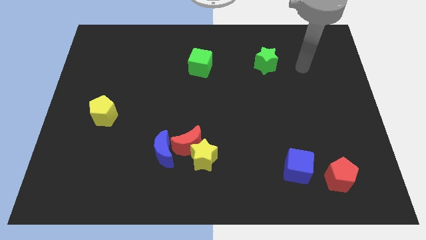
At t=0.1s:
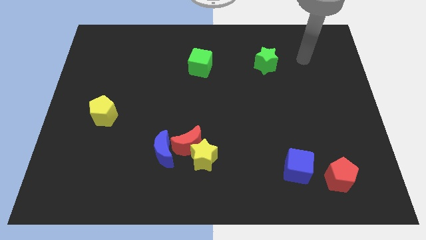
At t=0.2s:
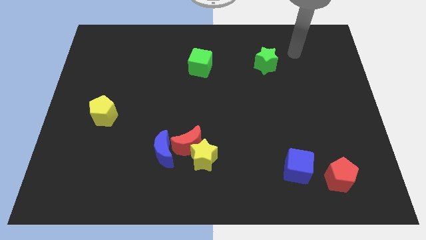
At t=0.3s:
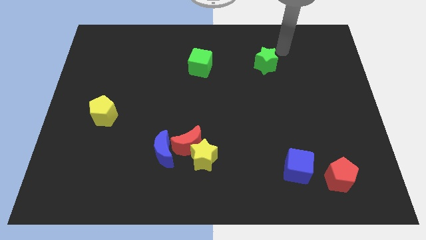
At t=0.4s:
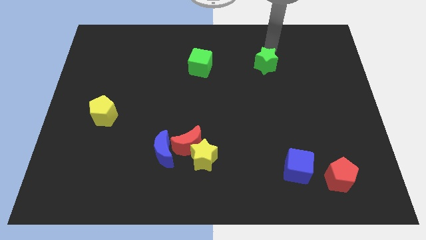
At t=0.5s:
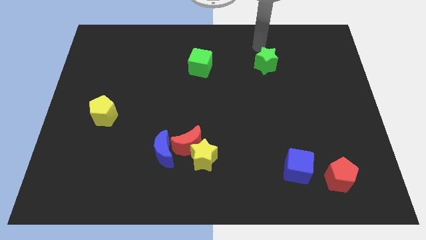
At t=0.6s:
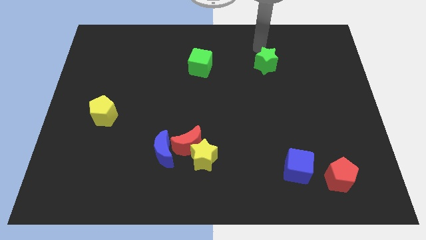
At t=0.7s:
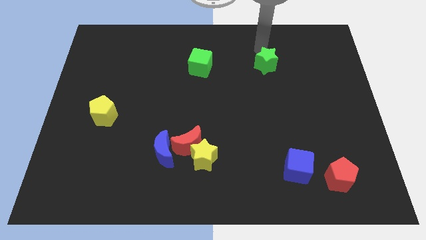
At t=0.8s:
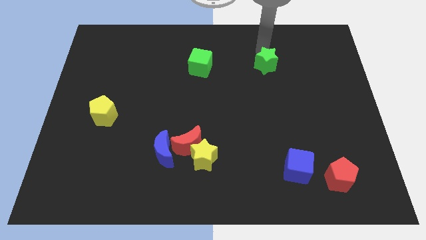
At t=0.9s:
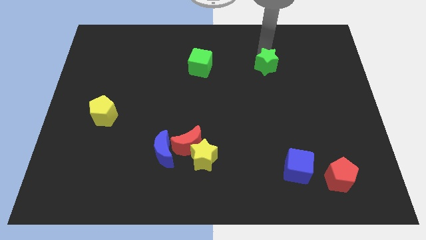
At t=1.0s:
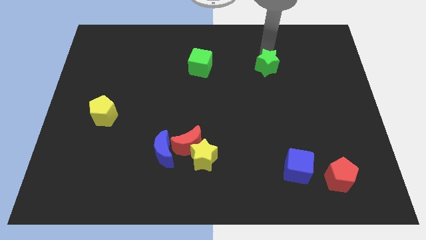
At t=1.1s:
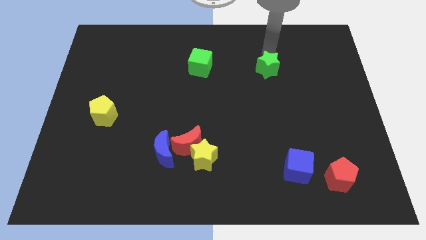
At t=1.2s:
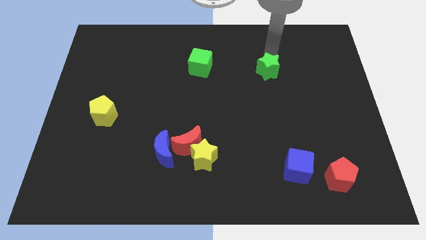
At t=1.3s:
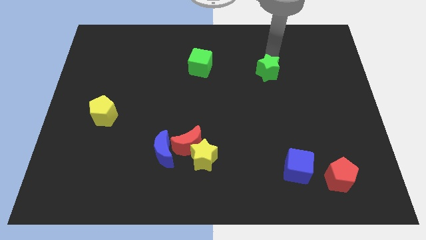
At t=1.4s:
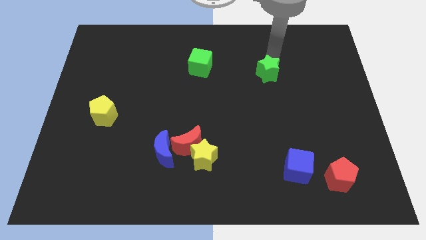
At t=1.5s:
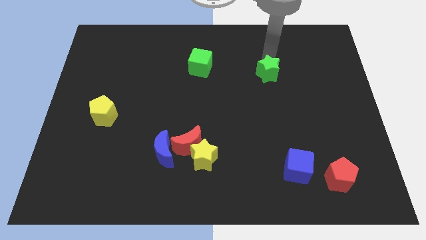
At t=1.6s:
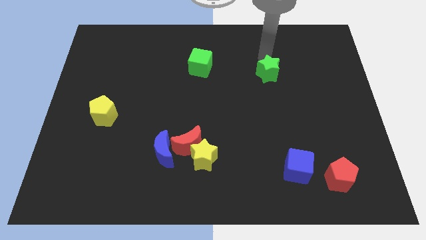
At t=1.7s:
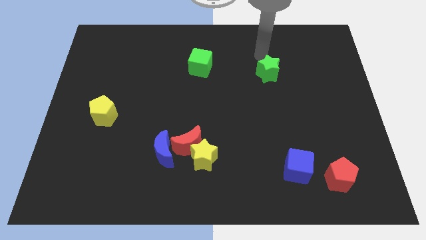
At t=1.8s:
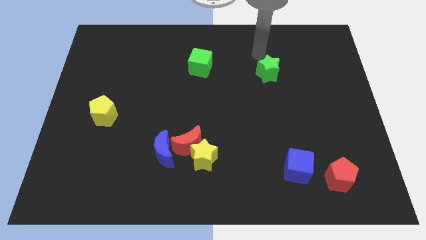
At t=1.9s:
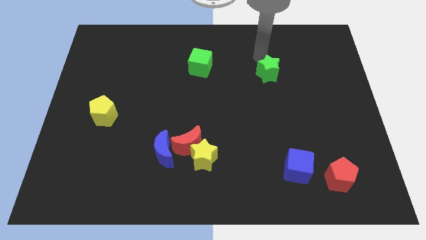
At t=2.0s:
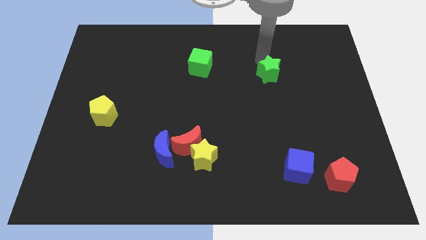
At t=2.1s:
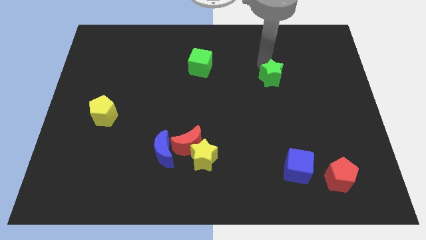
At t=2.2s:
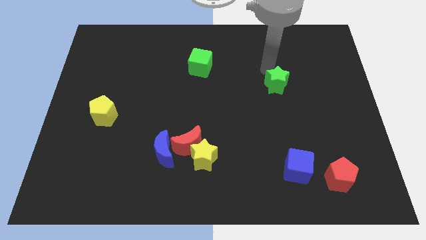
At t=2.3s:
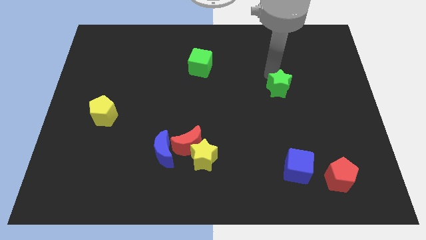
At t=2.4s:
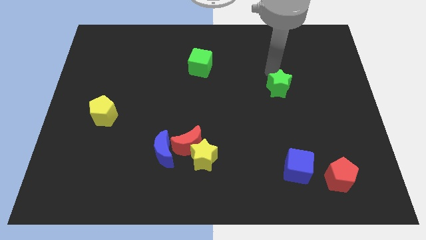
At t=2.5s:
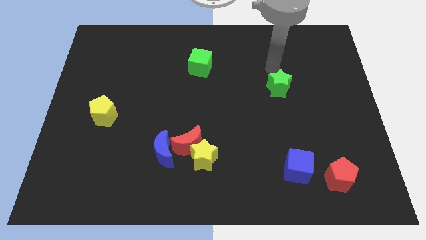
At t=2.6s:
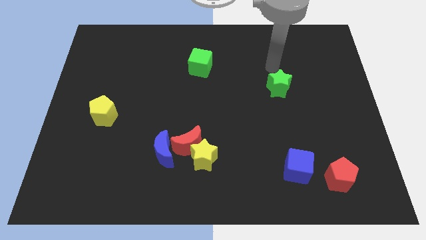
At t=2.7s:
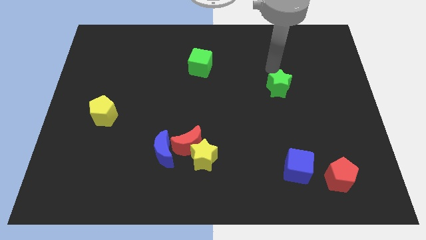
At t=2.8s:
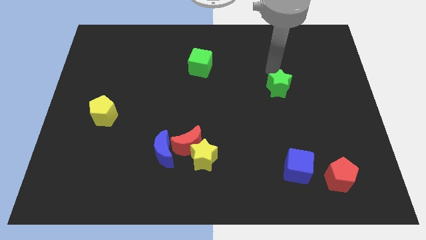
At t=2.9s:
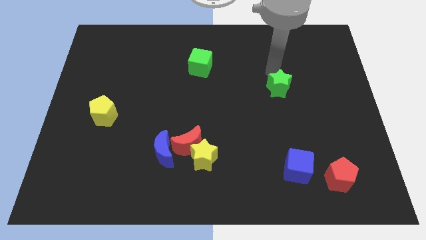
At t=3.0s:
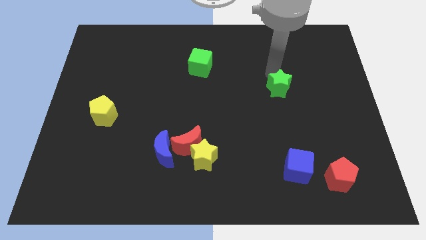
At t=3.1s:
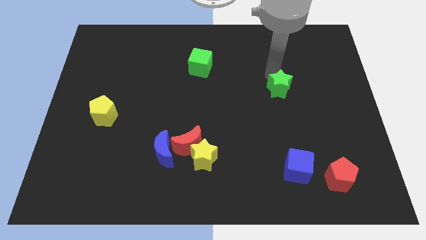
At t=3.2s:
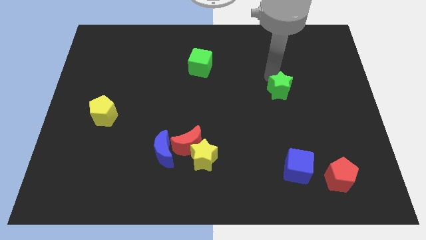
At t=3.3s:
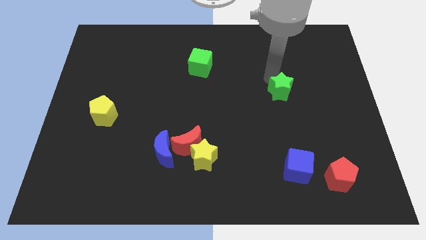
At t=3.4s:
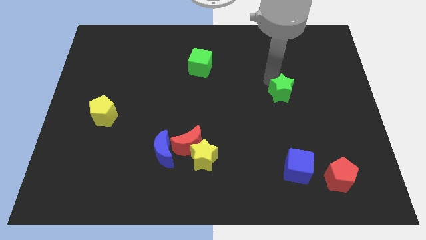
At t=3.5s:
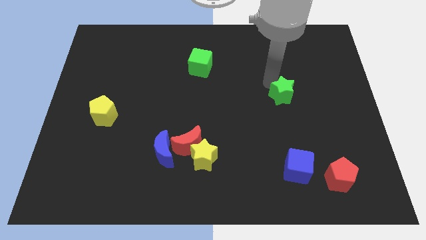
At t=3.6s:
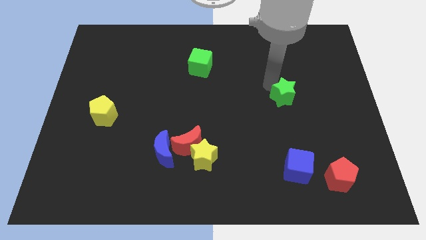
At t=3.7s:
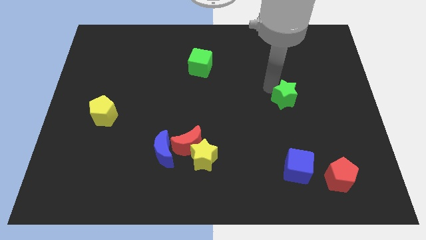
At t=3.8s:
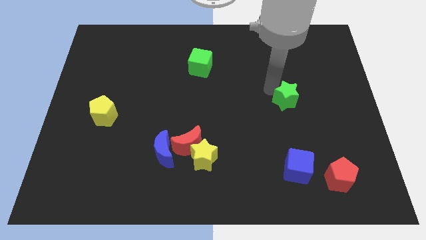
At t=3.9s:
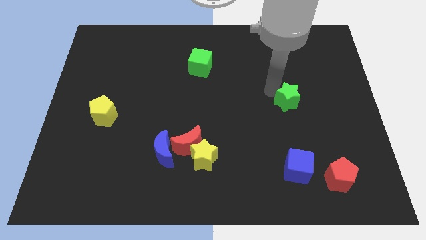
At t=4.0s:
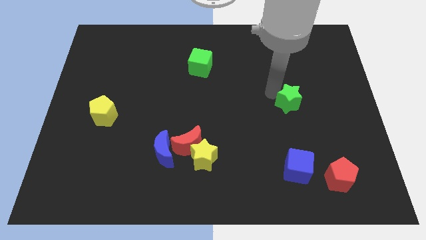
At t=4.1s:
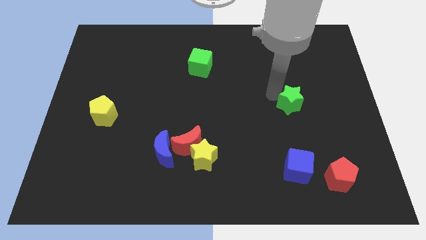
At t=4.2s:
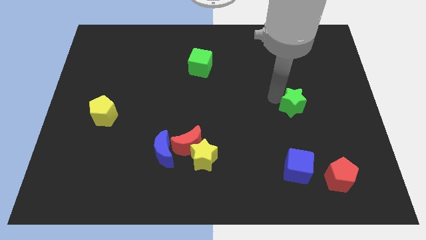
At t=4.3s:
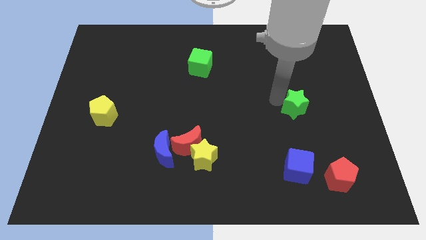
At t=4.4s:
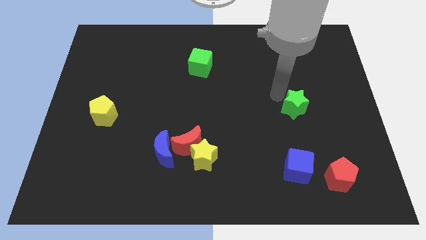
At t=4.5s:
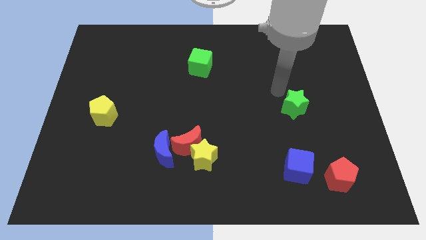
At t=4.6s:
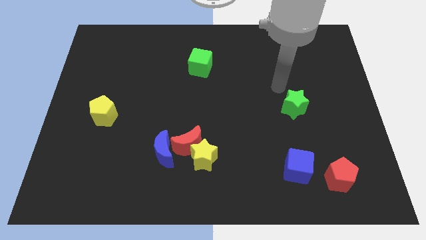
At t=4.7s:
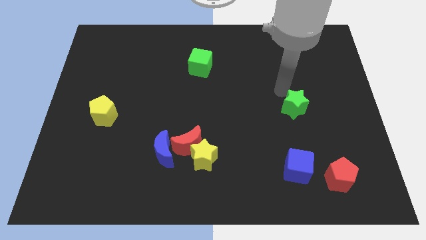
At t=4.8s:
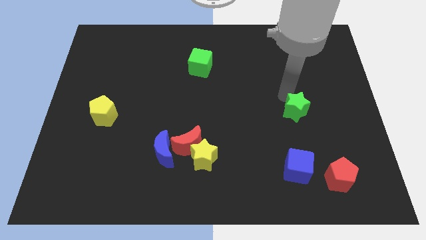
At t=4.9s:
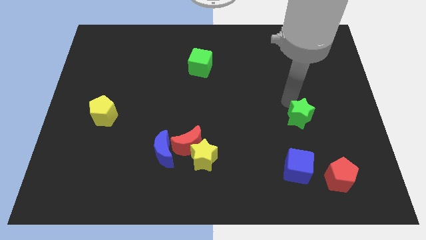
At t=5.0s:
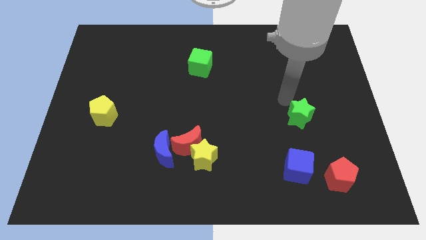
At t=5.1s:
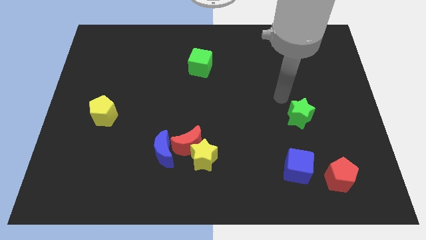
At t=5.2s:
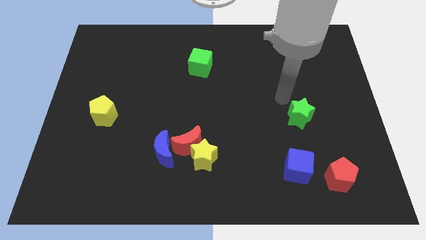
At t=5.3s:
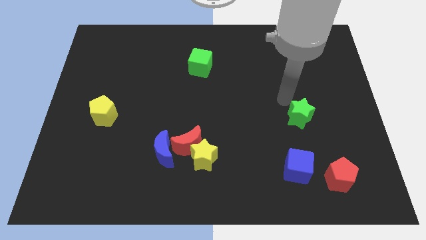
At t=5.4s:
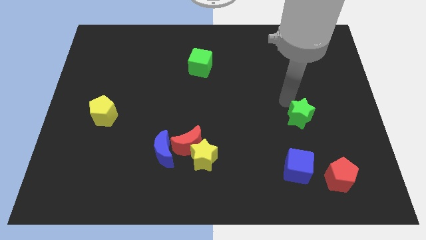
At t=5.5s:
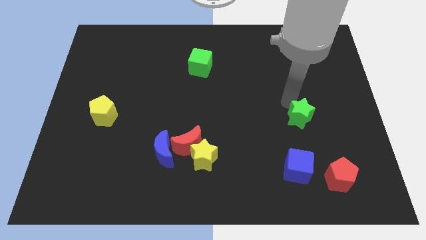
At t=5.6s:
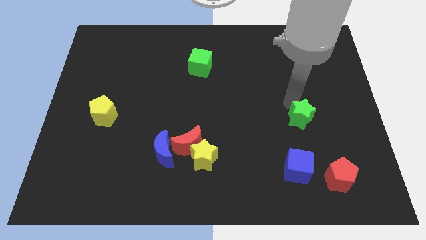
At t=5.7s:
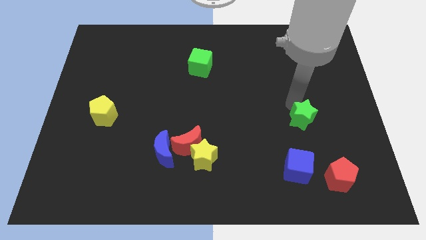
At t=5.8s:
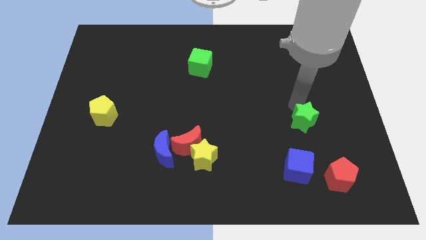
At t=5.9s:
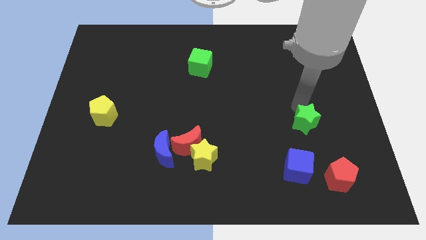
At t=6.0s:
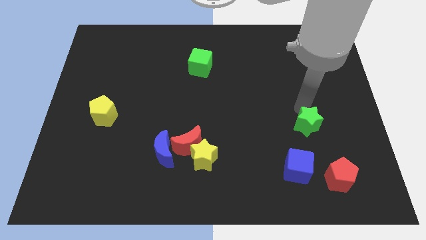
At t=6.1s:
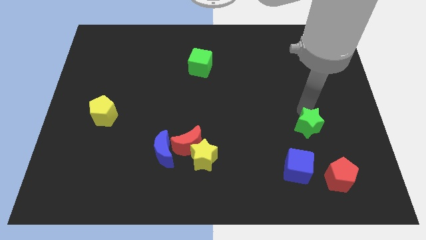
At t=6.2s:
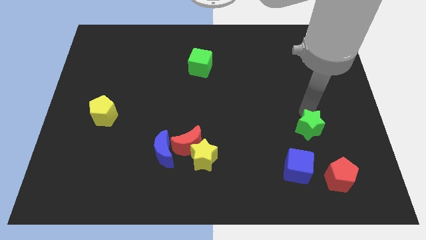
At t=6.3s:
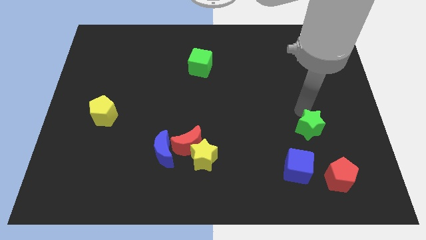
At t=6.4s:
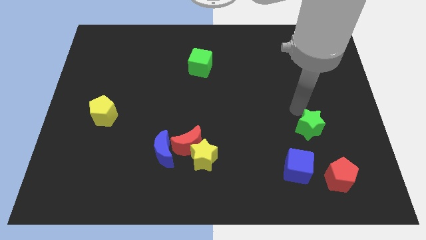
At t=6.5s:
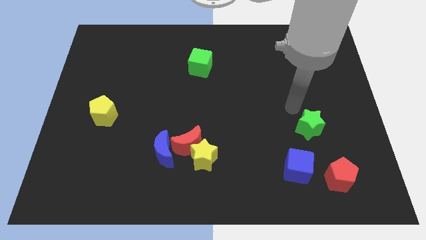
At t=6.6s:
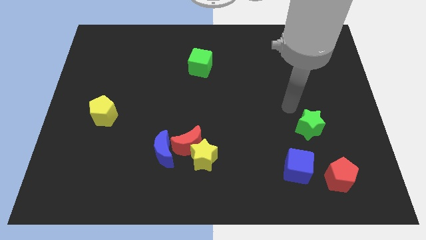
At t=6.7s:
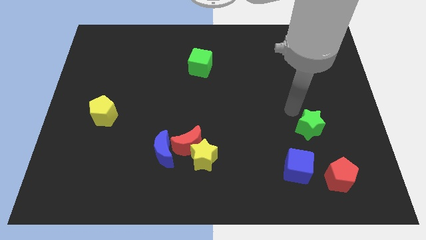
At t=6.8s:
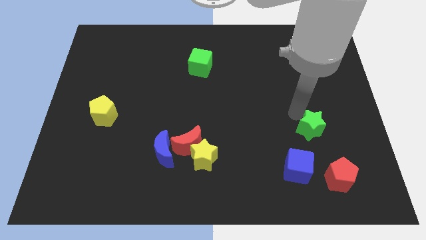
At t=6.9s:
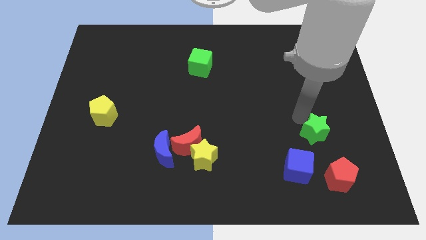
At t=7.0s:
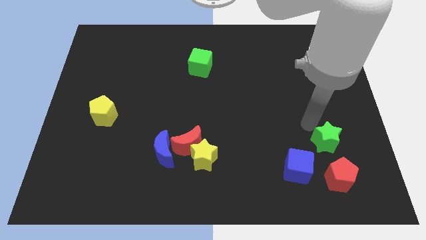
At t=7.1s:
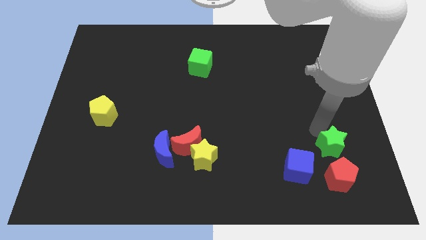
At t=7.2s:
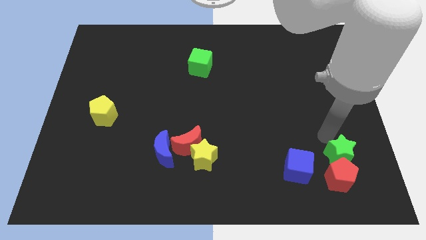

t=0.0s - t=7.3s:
put the green star next to the red pentagon

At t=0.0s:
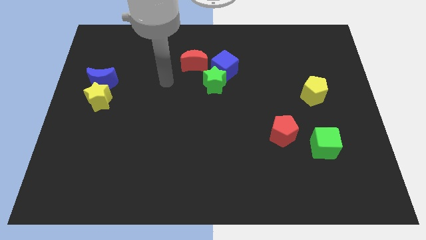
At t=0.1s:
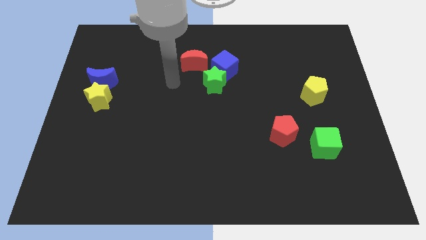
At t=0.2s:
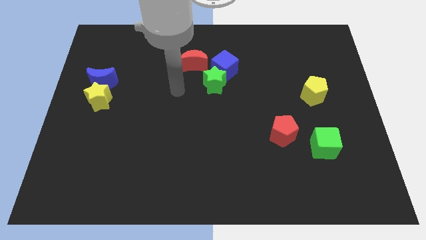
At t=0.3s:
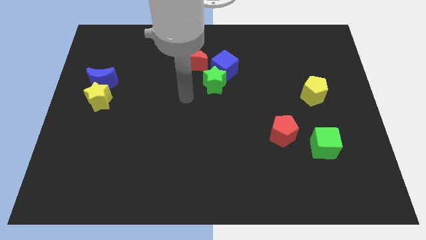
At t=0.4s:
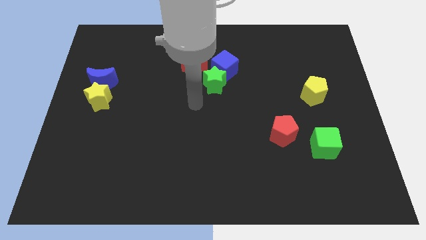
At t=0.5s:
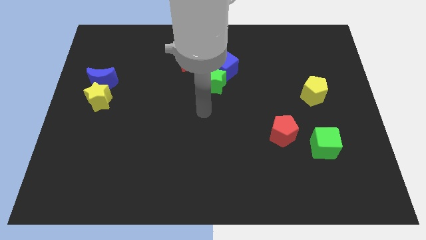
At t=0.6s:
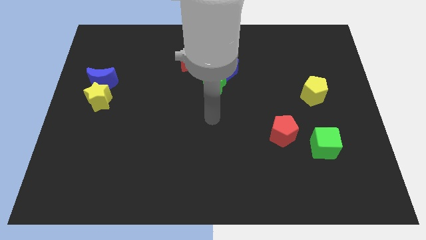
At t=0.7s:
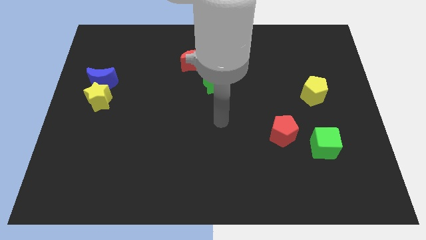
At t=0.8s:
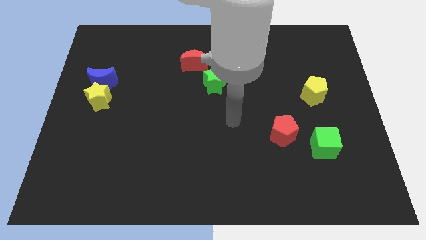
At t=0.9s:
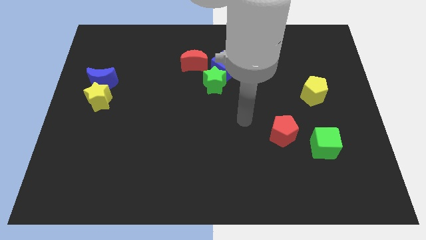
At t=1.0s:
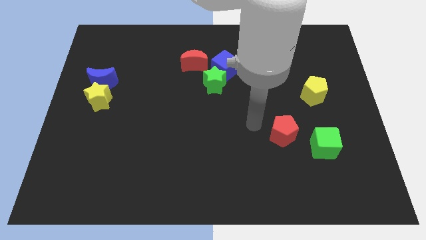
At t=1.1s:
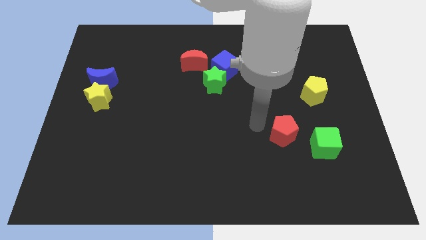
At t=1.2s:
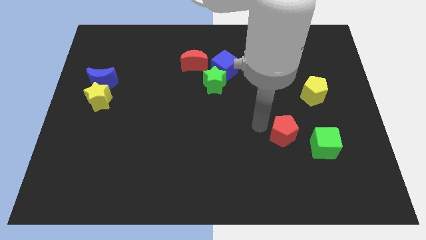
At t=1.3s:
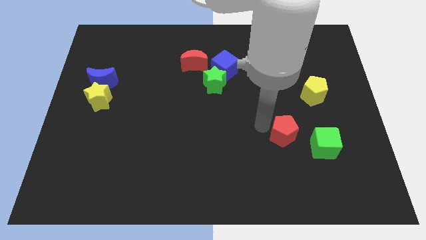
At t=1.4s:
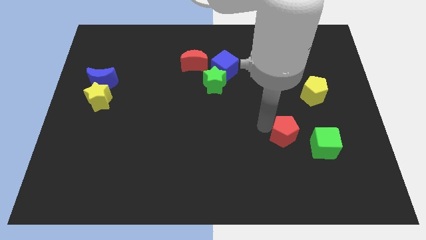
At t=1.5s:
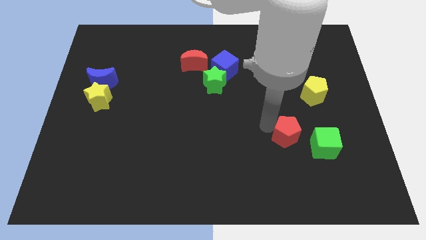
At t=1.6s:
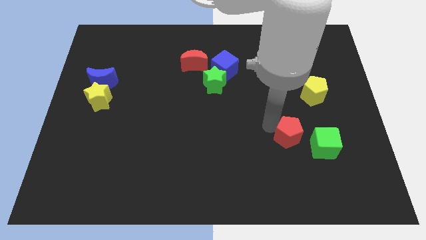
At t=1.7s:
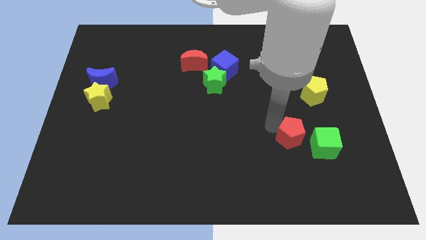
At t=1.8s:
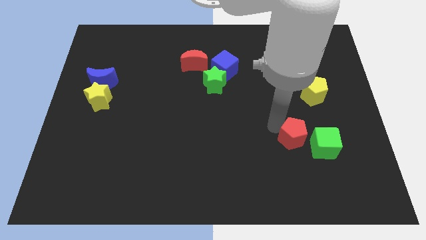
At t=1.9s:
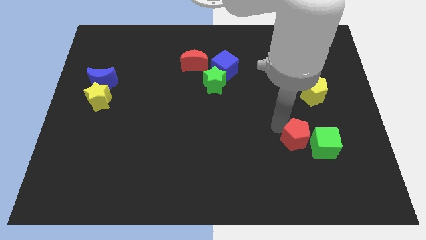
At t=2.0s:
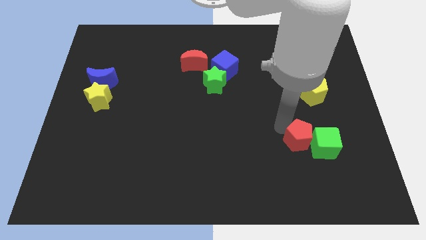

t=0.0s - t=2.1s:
put the red pentagon next to the green cube
